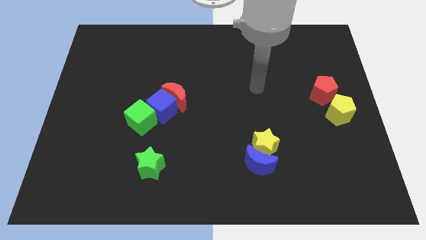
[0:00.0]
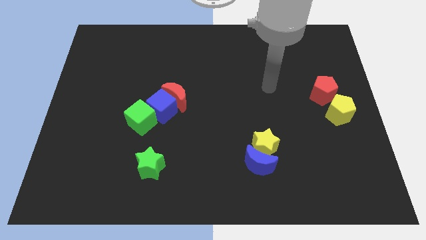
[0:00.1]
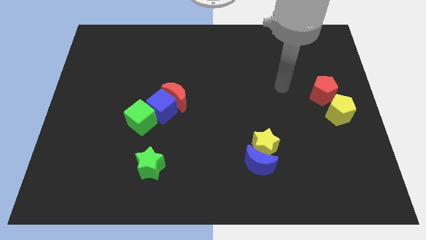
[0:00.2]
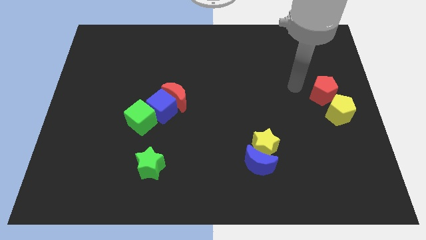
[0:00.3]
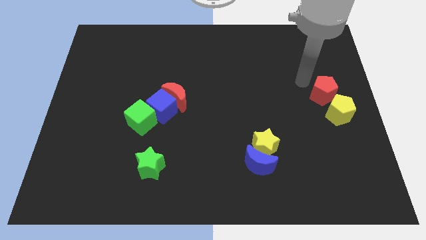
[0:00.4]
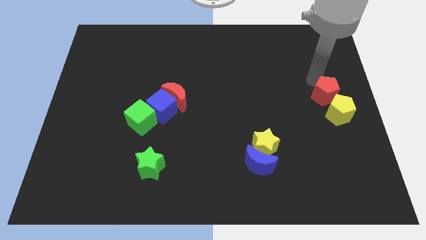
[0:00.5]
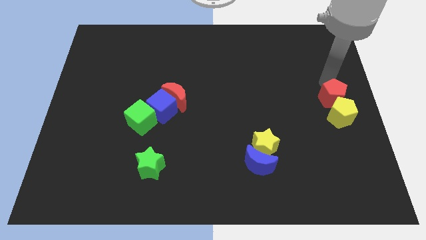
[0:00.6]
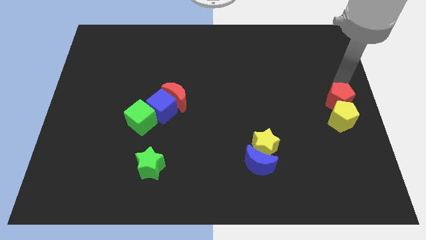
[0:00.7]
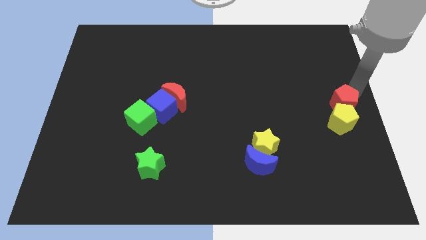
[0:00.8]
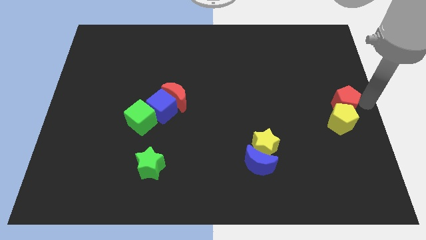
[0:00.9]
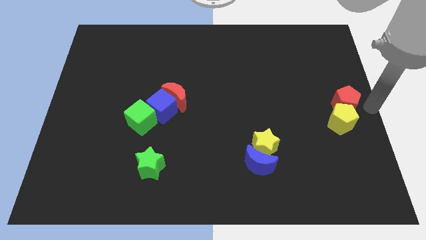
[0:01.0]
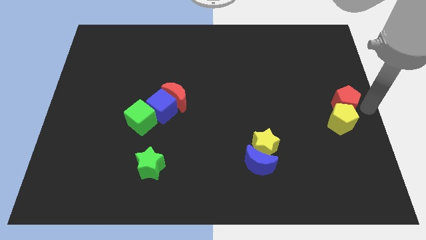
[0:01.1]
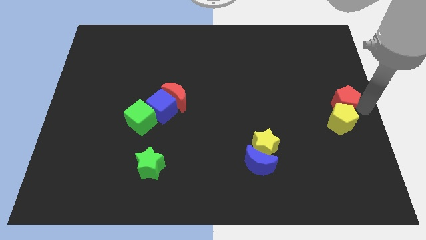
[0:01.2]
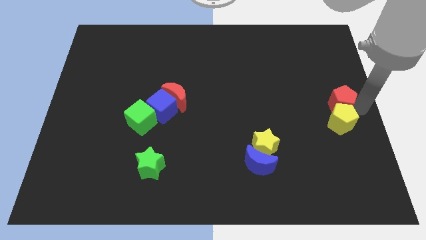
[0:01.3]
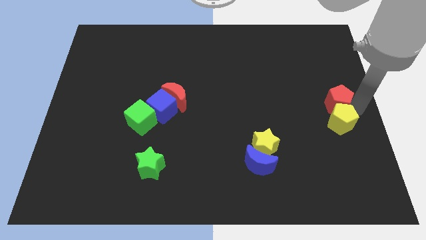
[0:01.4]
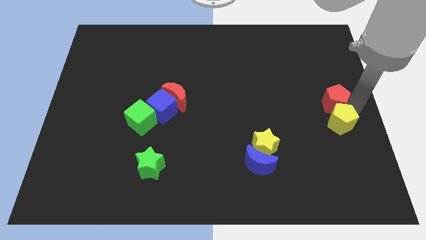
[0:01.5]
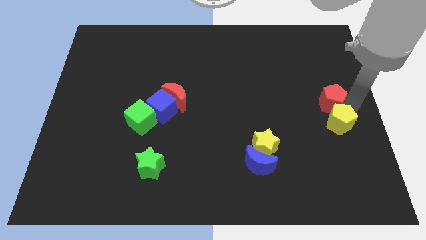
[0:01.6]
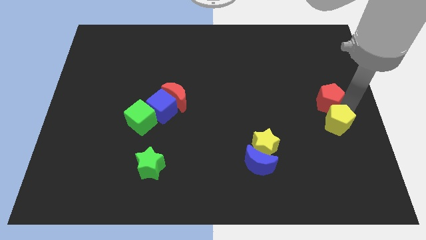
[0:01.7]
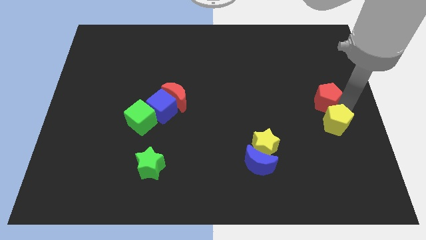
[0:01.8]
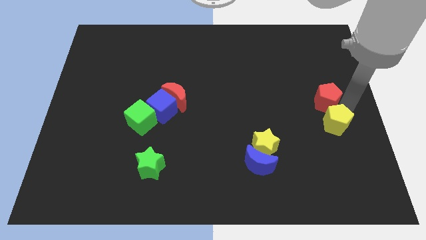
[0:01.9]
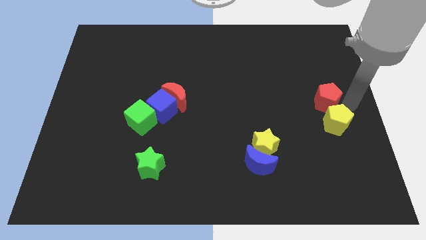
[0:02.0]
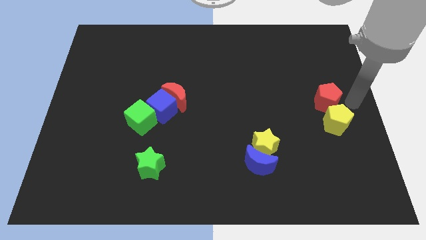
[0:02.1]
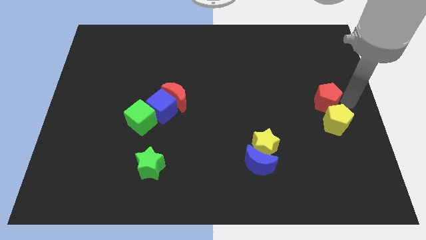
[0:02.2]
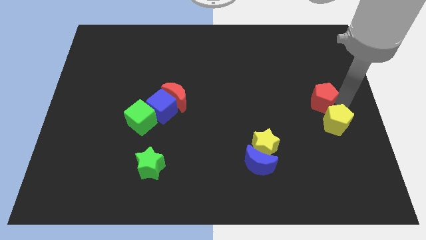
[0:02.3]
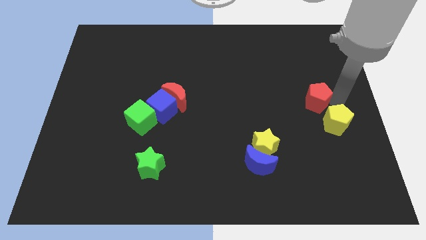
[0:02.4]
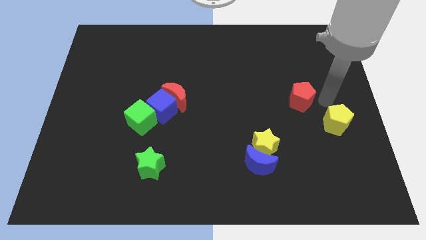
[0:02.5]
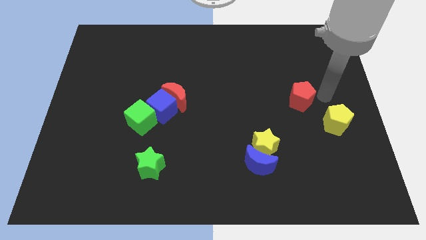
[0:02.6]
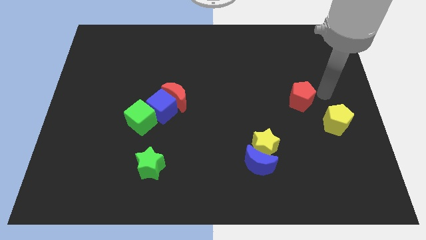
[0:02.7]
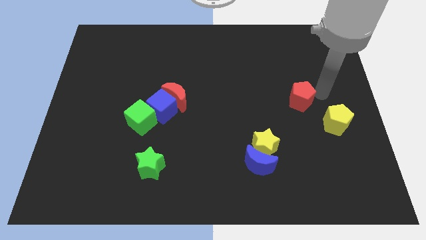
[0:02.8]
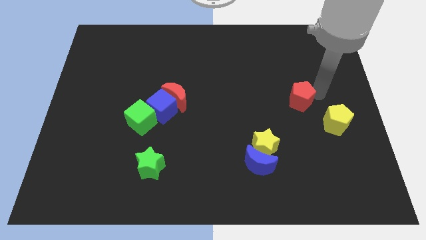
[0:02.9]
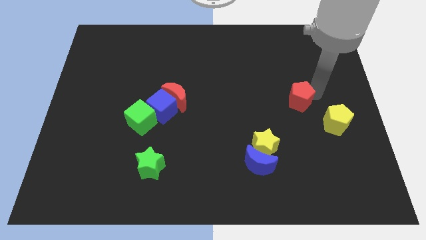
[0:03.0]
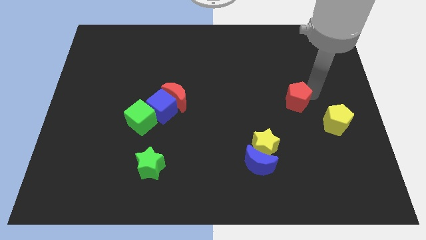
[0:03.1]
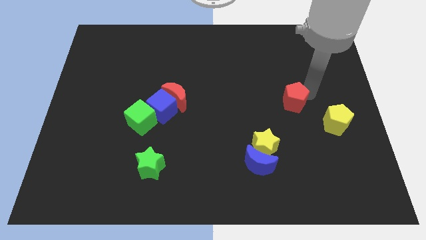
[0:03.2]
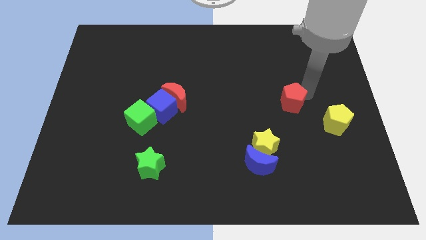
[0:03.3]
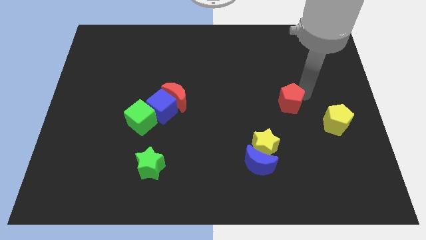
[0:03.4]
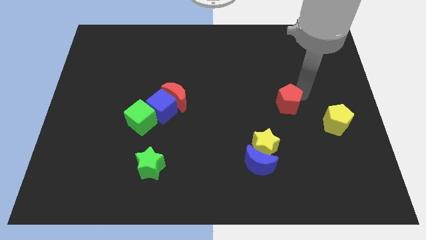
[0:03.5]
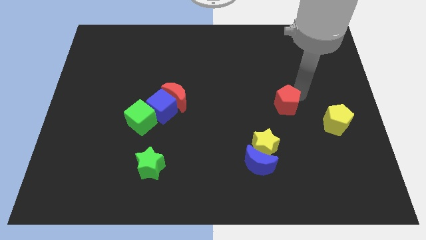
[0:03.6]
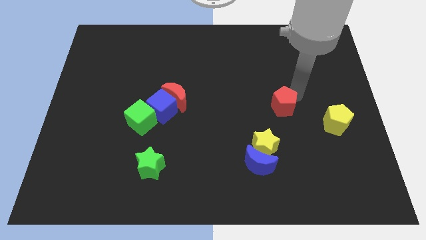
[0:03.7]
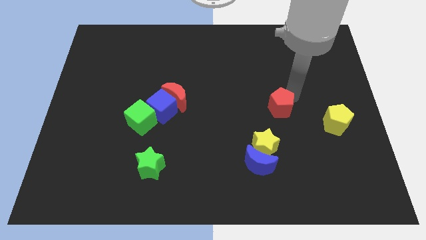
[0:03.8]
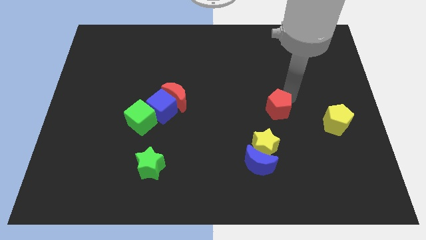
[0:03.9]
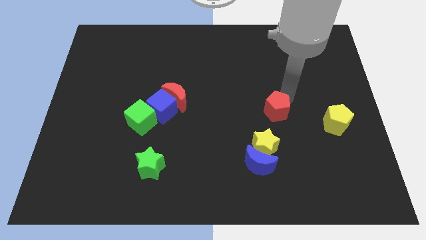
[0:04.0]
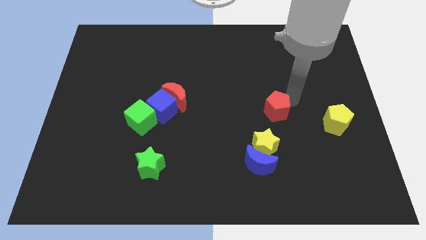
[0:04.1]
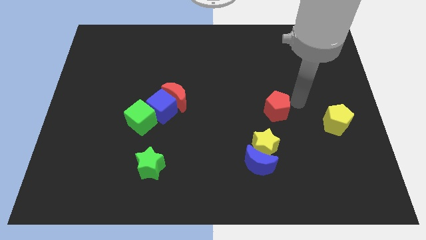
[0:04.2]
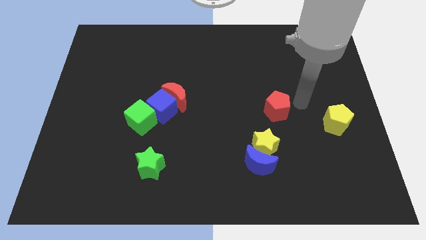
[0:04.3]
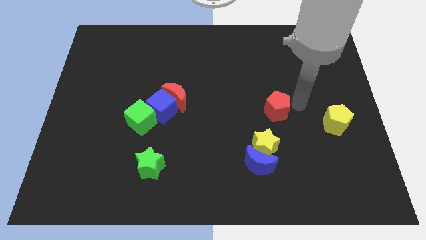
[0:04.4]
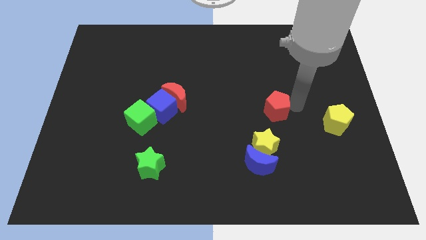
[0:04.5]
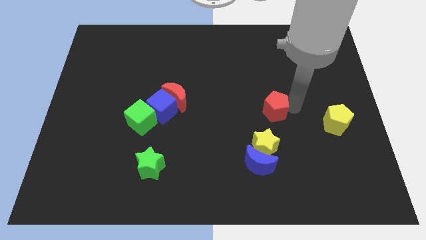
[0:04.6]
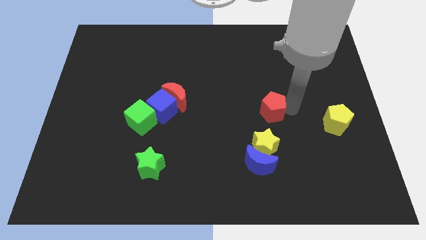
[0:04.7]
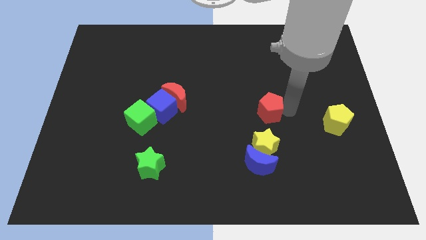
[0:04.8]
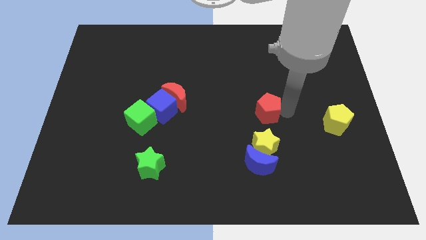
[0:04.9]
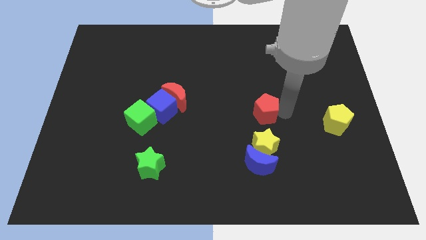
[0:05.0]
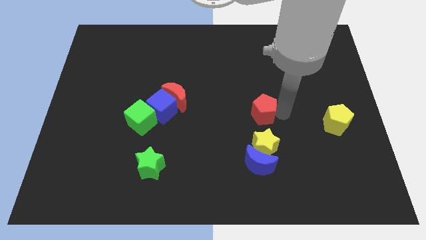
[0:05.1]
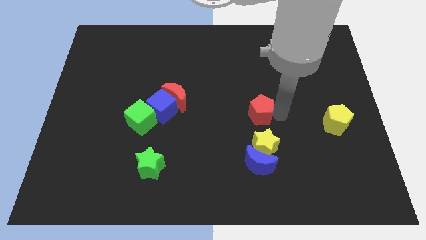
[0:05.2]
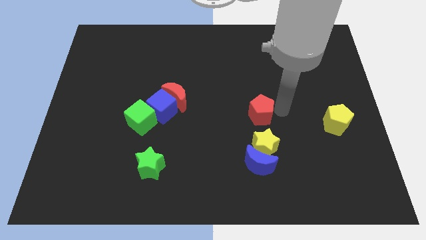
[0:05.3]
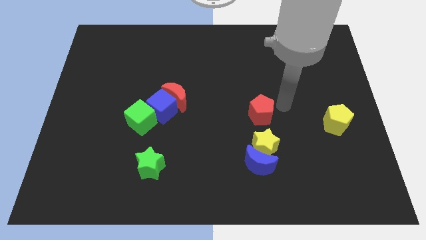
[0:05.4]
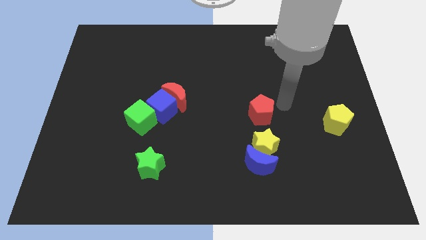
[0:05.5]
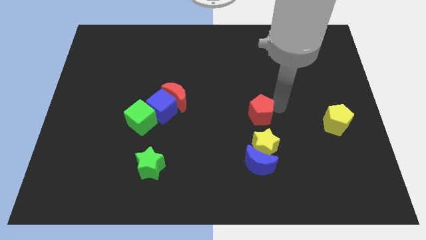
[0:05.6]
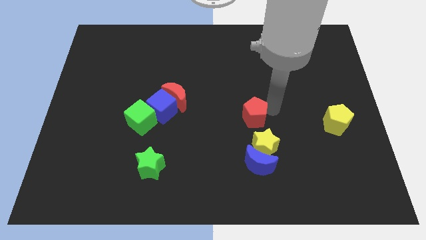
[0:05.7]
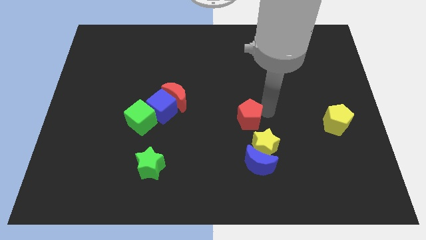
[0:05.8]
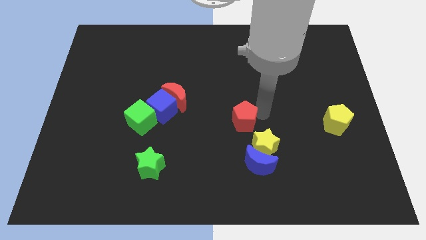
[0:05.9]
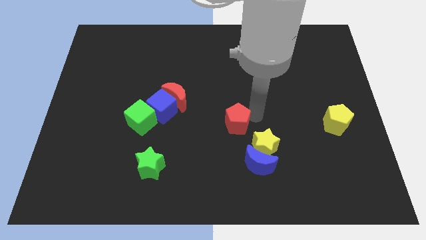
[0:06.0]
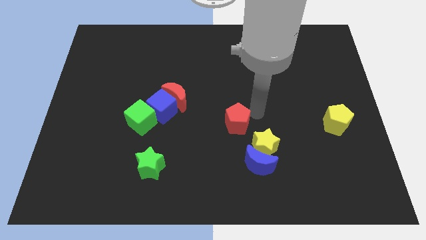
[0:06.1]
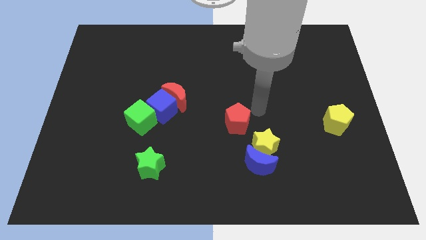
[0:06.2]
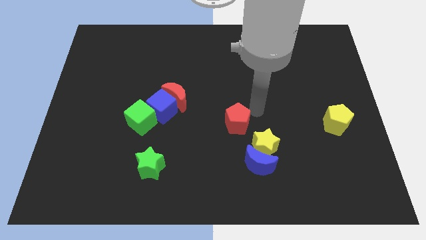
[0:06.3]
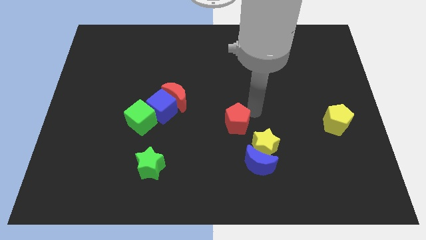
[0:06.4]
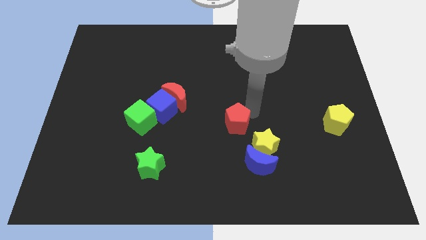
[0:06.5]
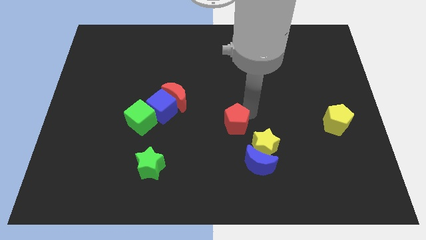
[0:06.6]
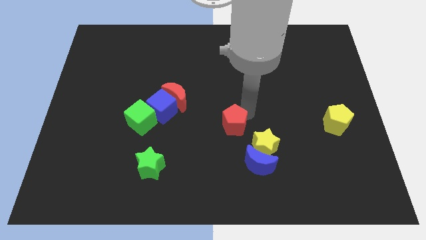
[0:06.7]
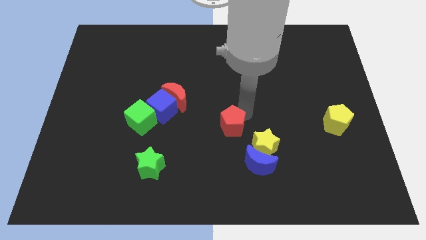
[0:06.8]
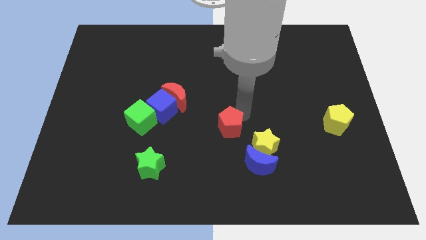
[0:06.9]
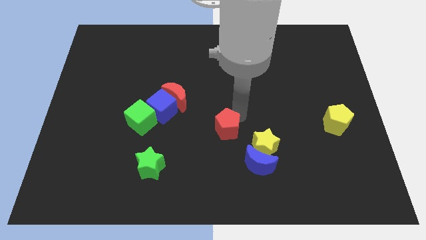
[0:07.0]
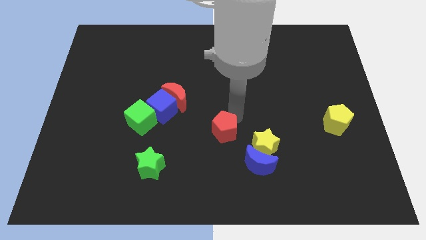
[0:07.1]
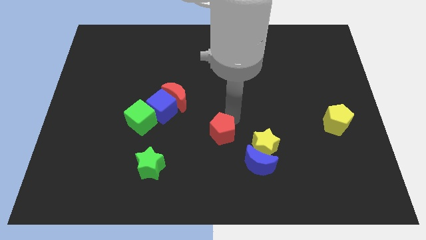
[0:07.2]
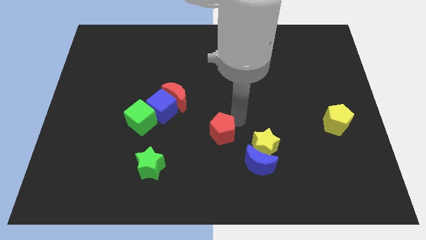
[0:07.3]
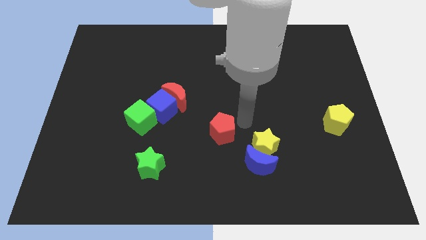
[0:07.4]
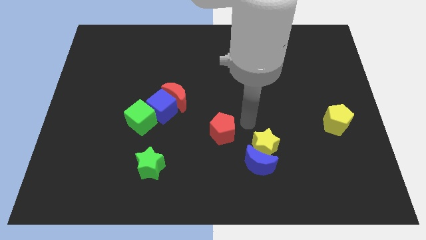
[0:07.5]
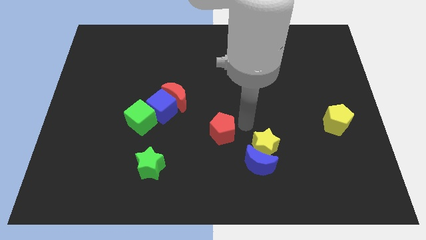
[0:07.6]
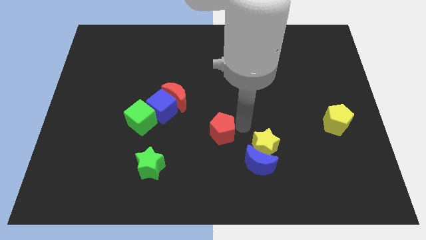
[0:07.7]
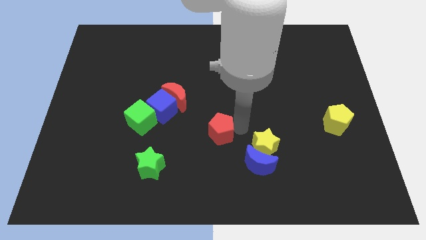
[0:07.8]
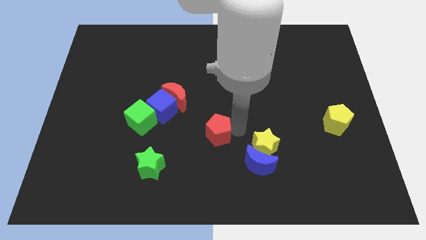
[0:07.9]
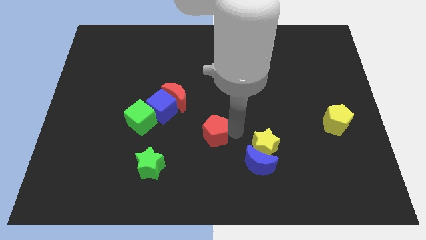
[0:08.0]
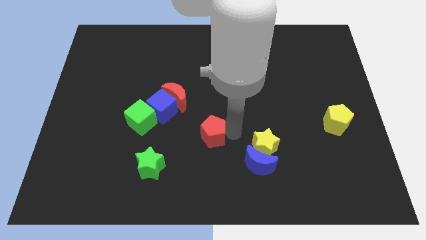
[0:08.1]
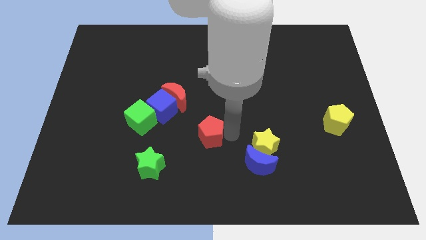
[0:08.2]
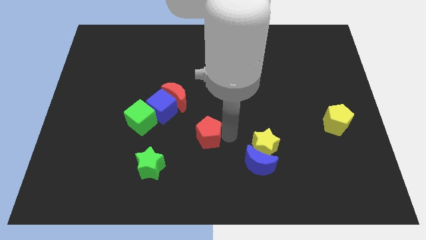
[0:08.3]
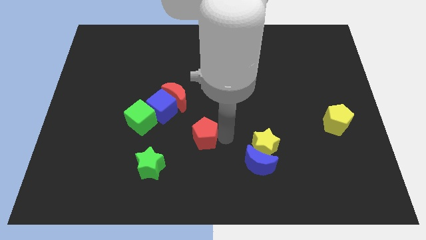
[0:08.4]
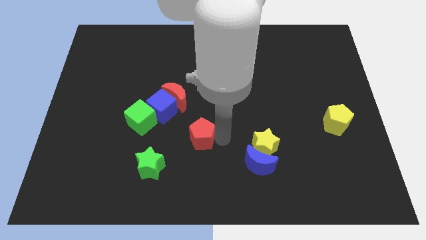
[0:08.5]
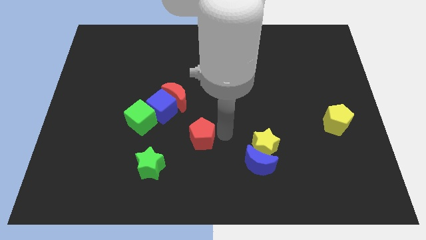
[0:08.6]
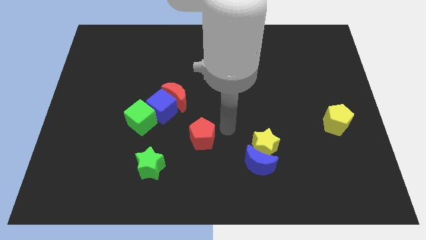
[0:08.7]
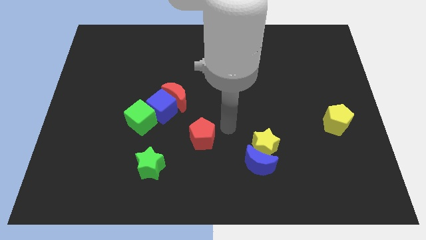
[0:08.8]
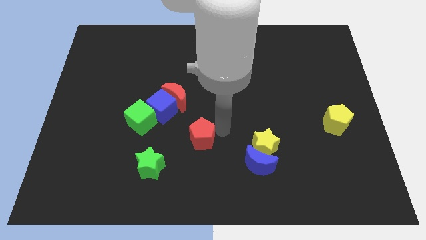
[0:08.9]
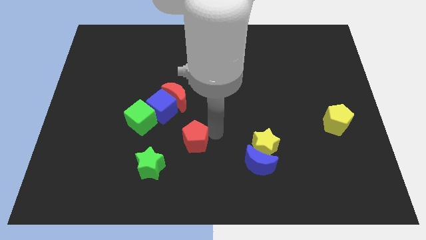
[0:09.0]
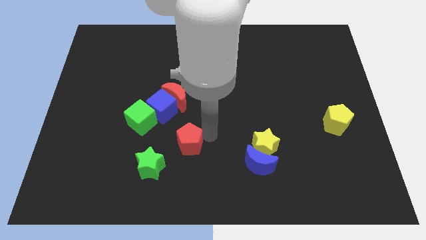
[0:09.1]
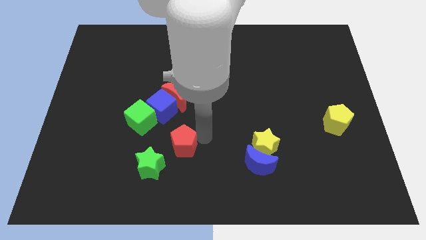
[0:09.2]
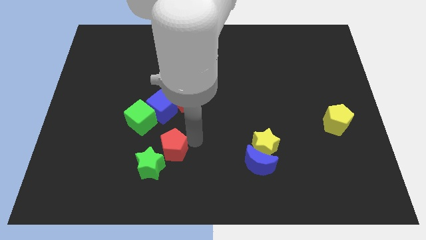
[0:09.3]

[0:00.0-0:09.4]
push the red pentagon towards the green star
